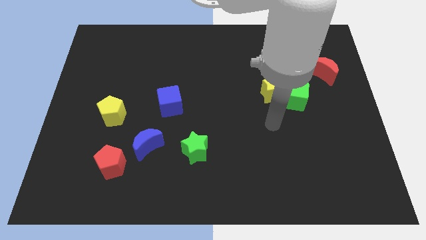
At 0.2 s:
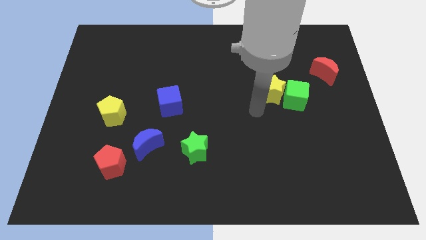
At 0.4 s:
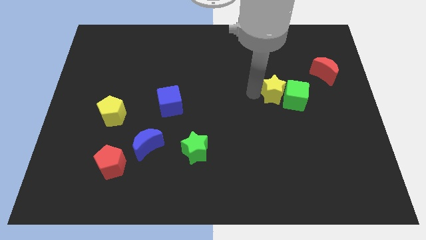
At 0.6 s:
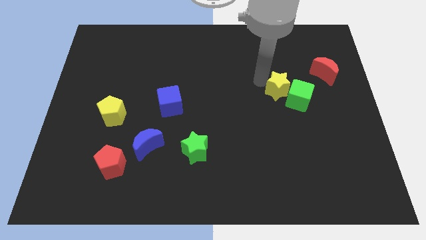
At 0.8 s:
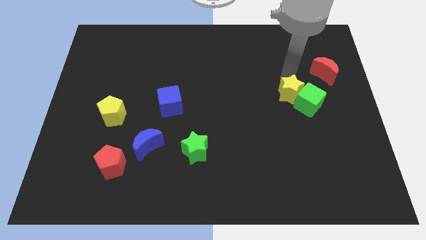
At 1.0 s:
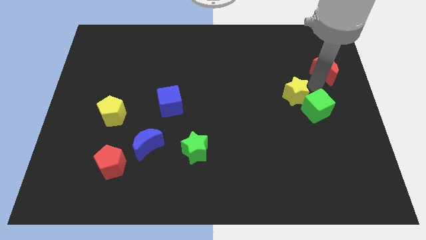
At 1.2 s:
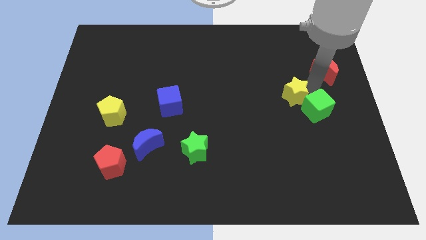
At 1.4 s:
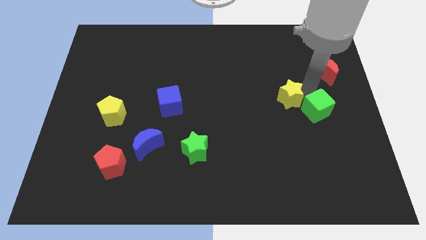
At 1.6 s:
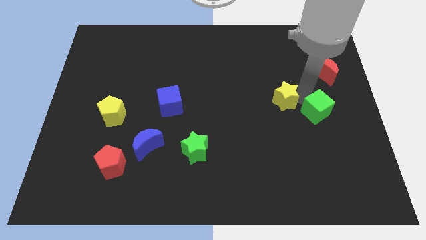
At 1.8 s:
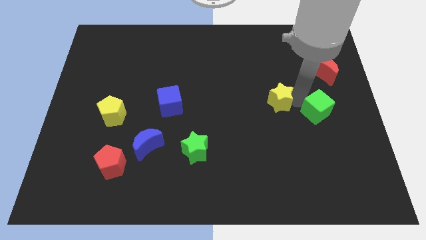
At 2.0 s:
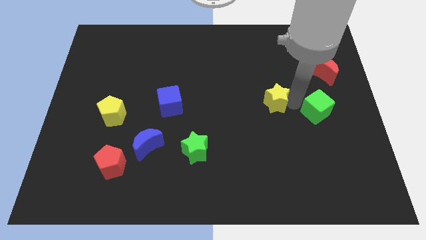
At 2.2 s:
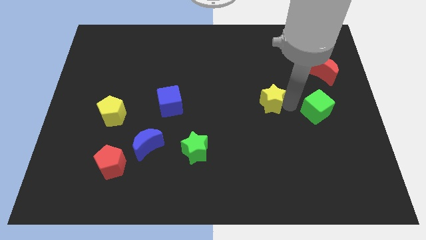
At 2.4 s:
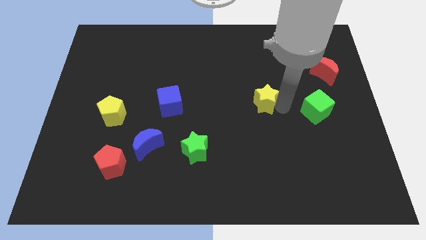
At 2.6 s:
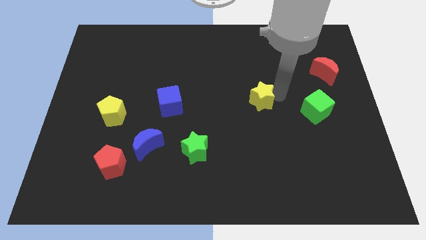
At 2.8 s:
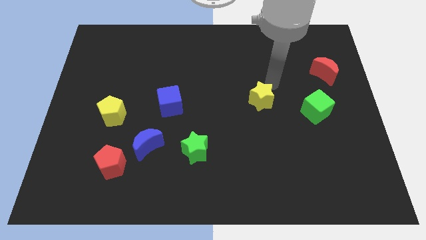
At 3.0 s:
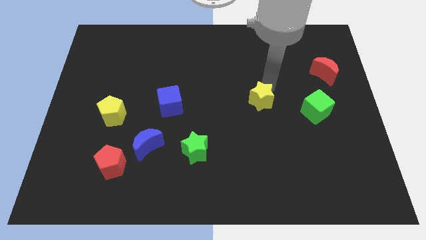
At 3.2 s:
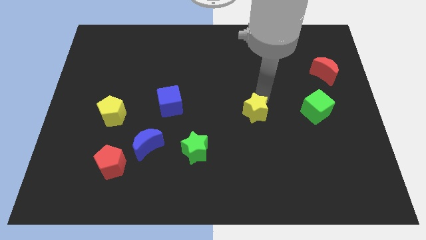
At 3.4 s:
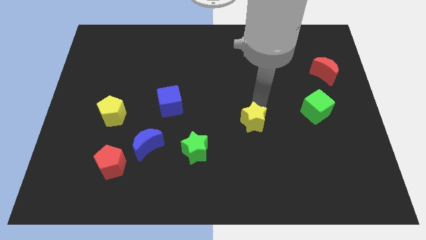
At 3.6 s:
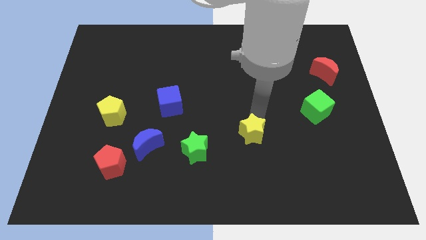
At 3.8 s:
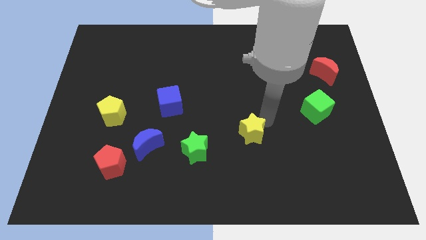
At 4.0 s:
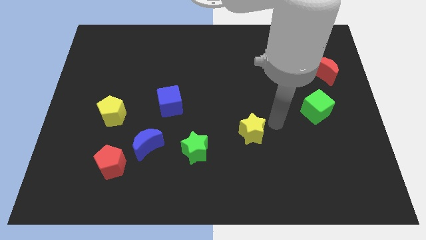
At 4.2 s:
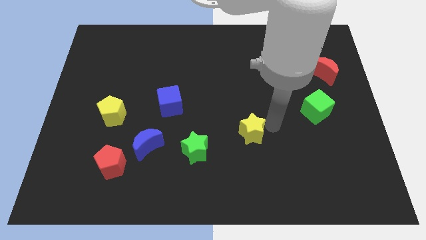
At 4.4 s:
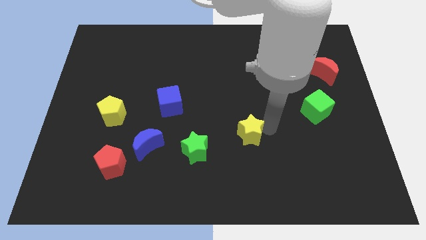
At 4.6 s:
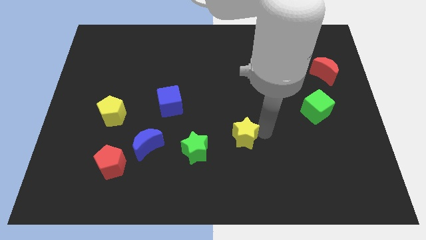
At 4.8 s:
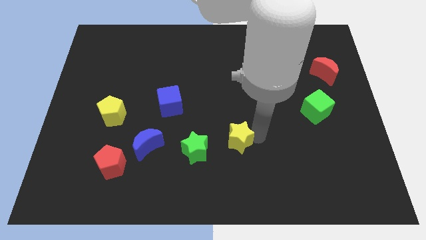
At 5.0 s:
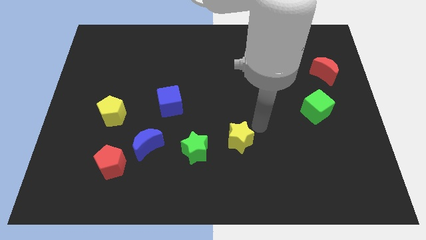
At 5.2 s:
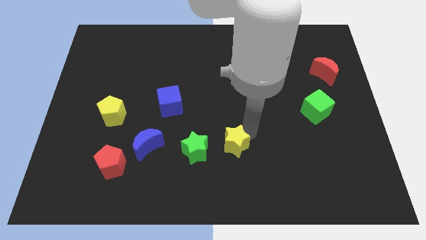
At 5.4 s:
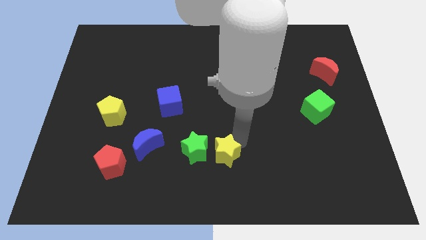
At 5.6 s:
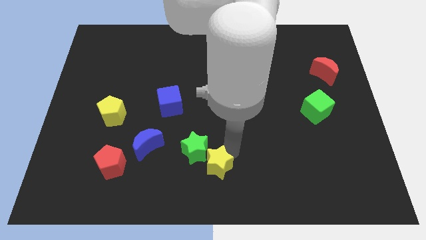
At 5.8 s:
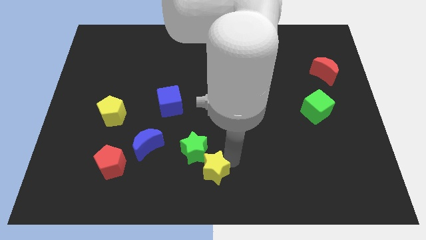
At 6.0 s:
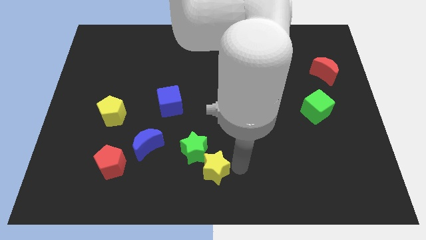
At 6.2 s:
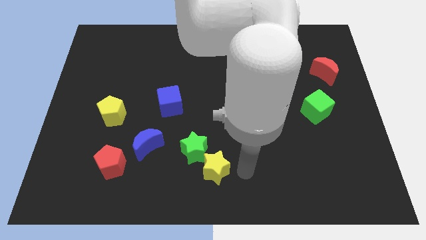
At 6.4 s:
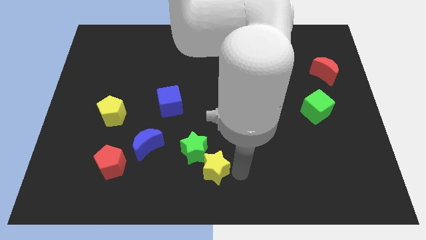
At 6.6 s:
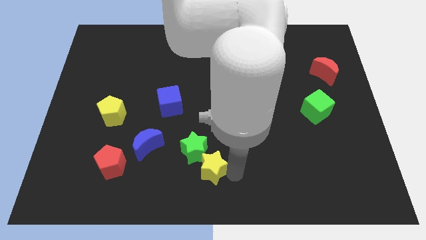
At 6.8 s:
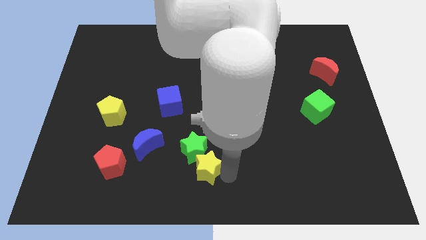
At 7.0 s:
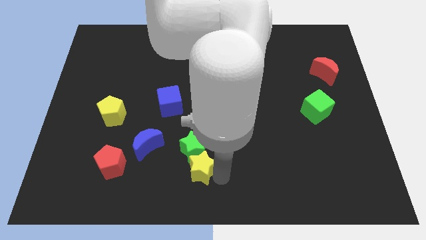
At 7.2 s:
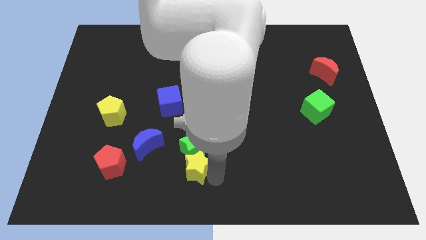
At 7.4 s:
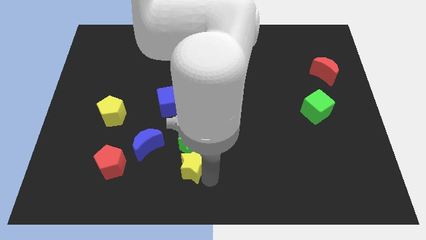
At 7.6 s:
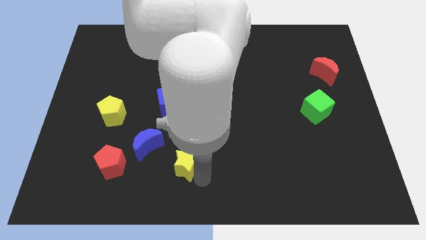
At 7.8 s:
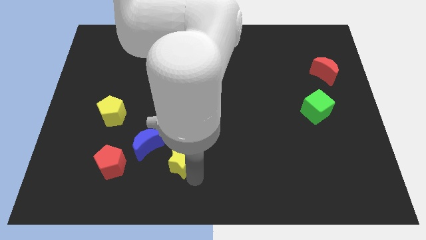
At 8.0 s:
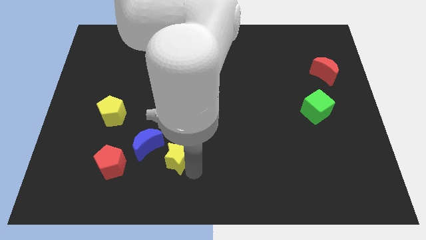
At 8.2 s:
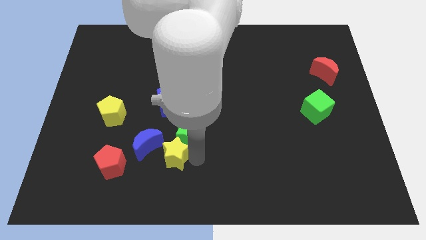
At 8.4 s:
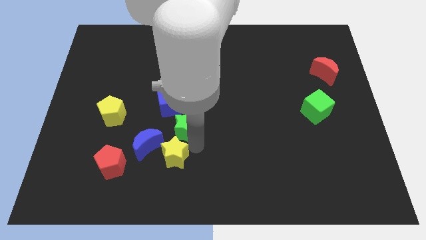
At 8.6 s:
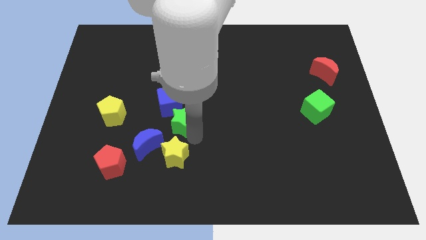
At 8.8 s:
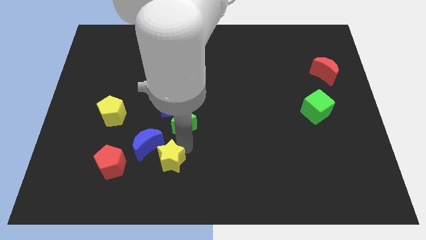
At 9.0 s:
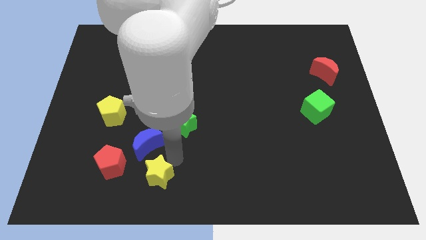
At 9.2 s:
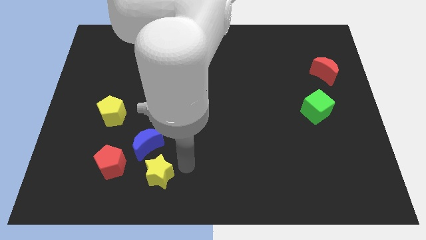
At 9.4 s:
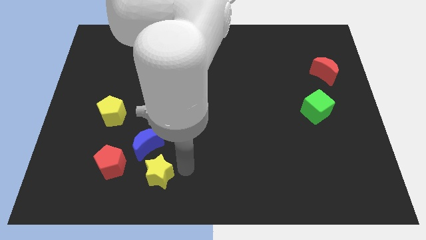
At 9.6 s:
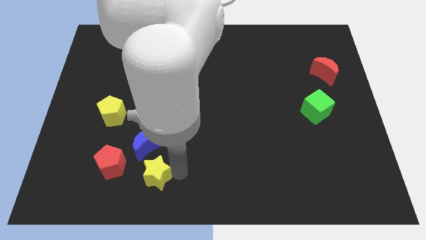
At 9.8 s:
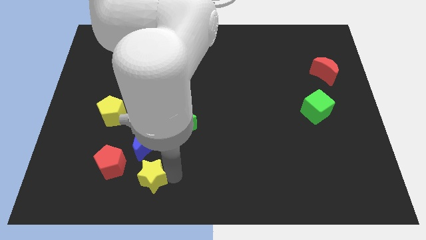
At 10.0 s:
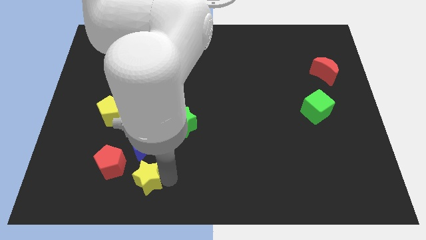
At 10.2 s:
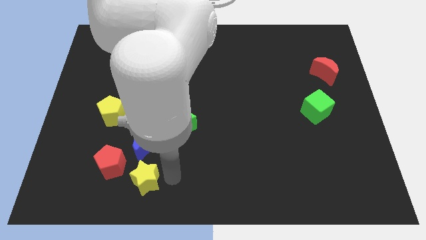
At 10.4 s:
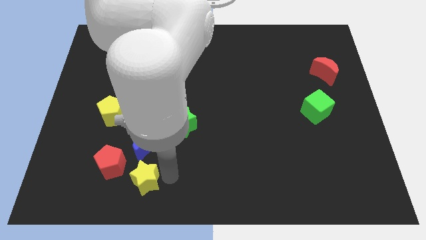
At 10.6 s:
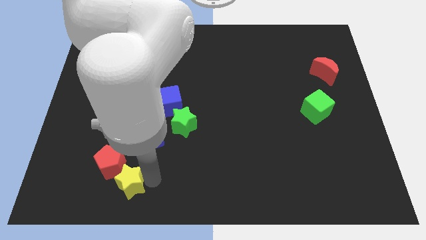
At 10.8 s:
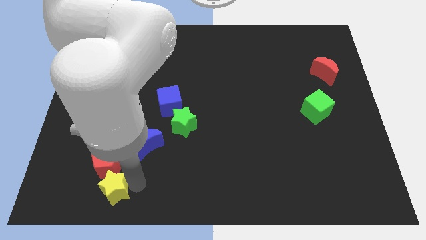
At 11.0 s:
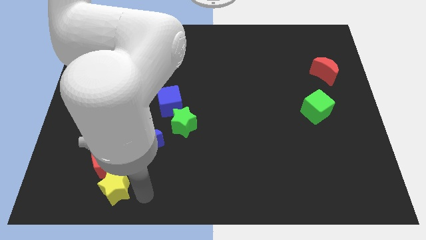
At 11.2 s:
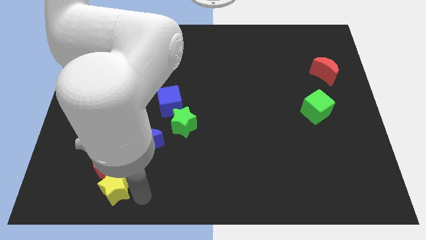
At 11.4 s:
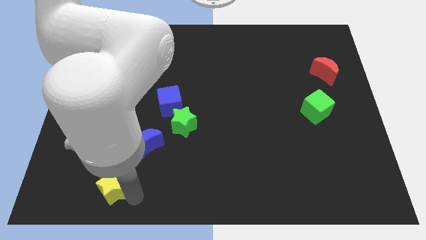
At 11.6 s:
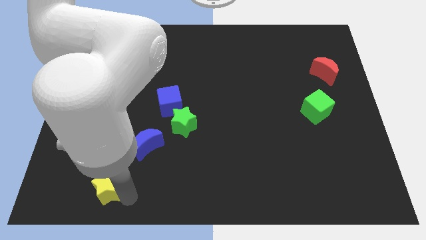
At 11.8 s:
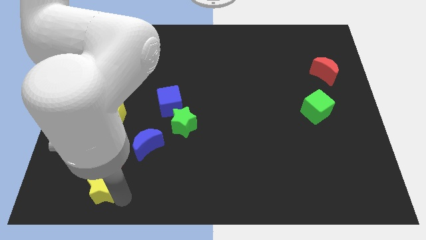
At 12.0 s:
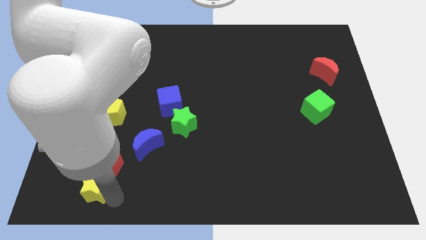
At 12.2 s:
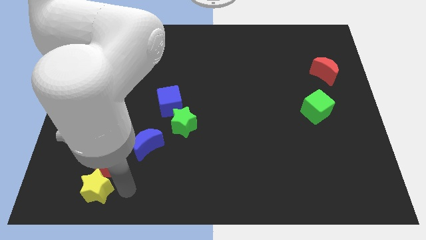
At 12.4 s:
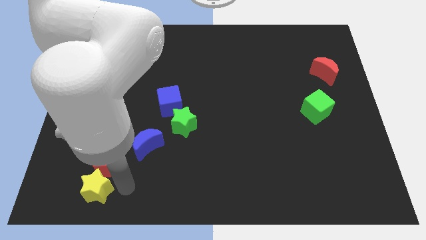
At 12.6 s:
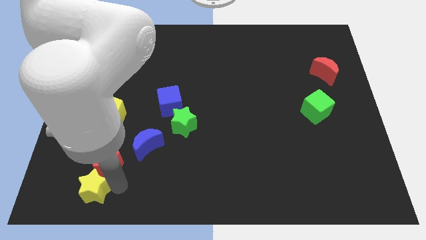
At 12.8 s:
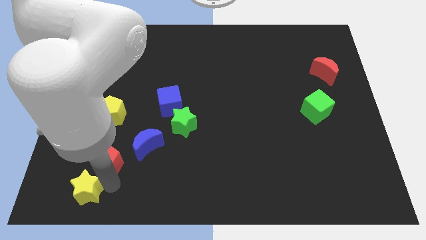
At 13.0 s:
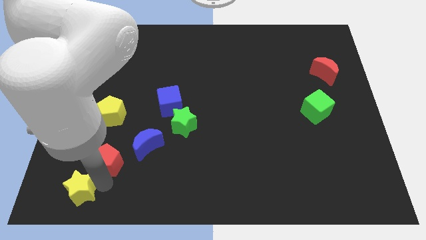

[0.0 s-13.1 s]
move the yellow star to the bottom left corner
